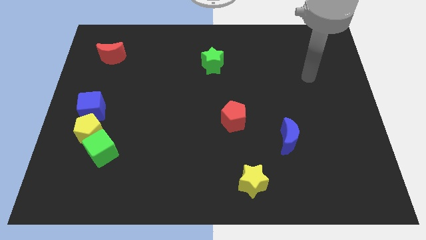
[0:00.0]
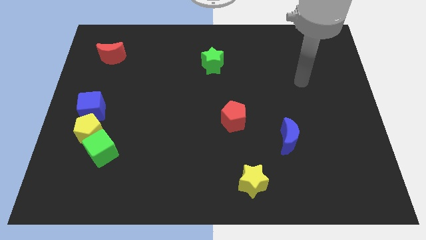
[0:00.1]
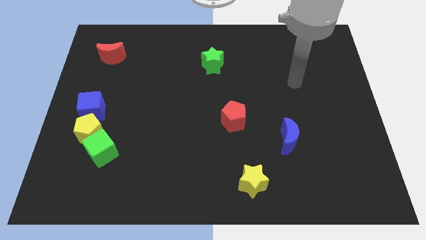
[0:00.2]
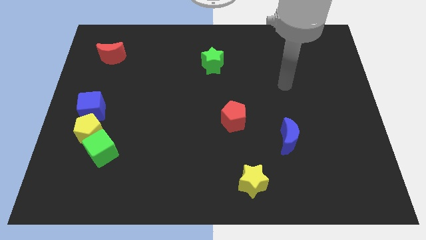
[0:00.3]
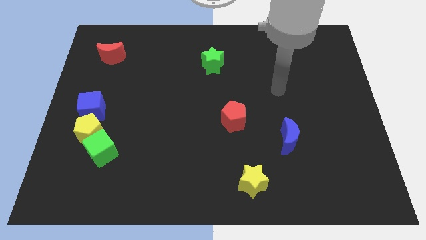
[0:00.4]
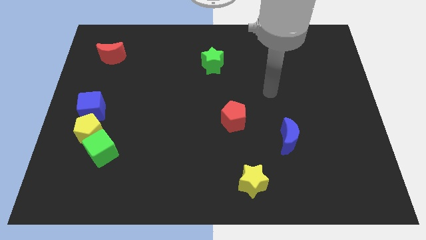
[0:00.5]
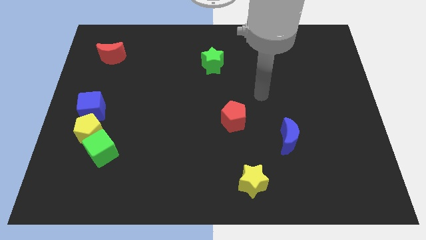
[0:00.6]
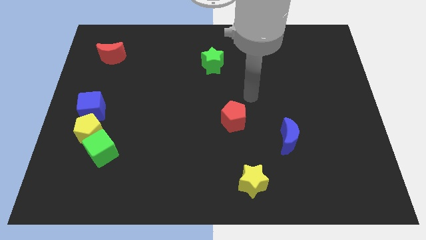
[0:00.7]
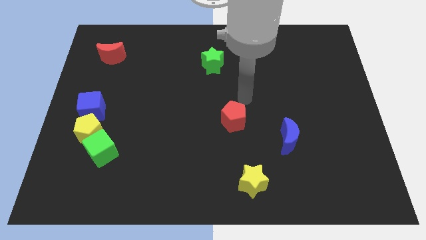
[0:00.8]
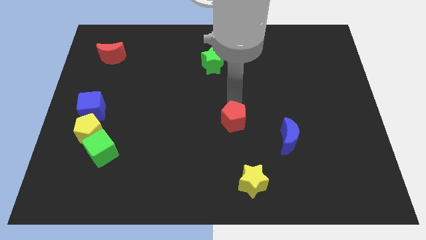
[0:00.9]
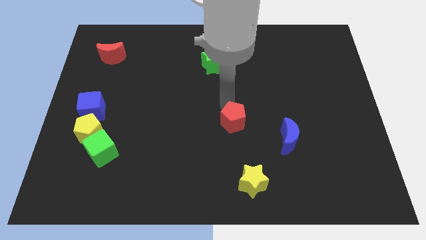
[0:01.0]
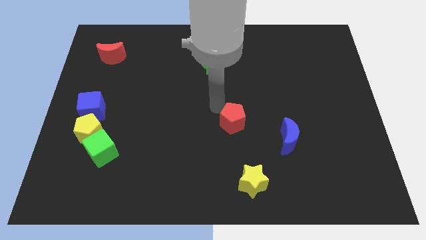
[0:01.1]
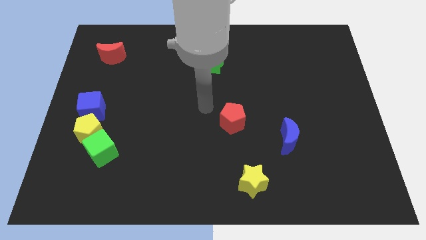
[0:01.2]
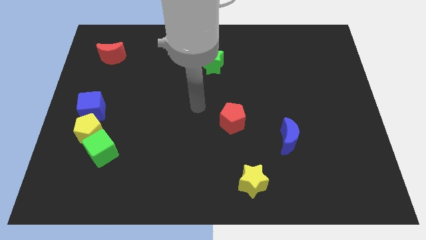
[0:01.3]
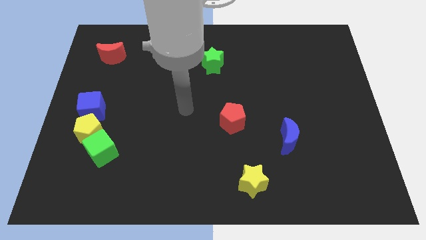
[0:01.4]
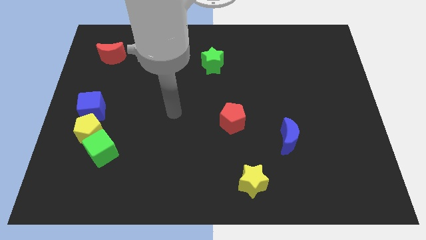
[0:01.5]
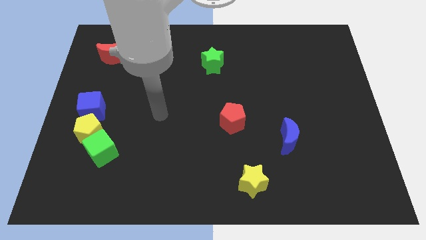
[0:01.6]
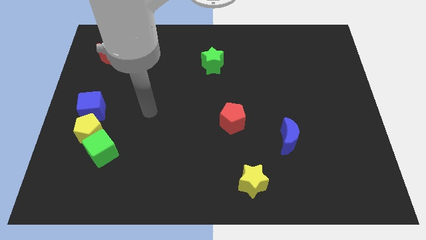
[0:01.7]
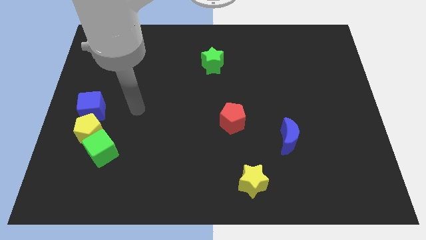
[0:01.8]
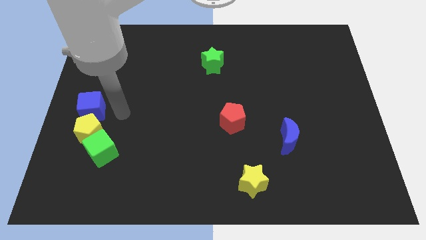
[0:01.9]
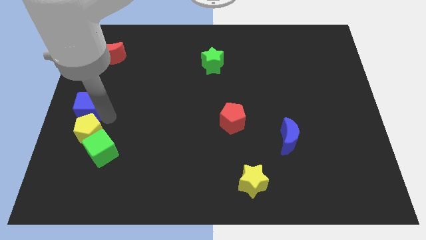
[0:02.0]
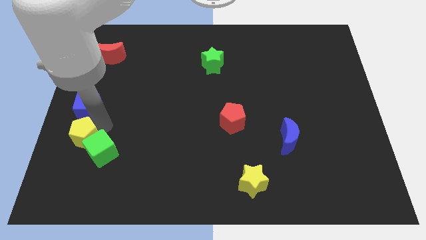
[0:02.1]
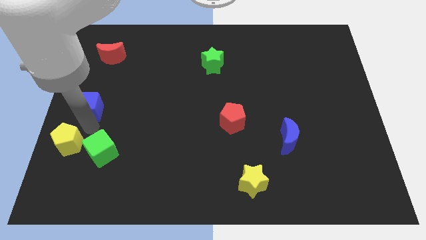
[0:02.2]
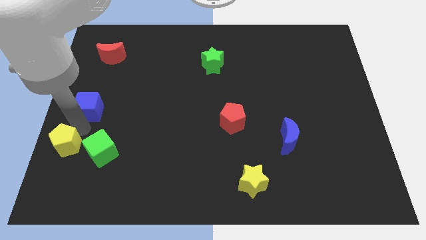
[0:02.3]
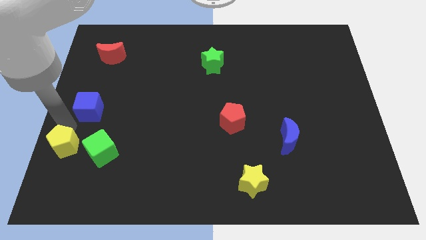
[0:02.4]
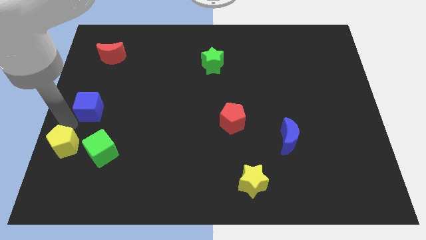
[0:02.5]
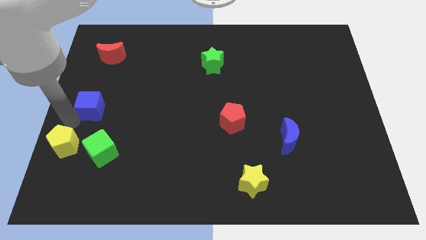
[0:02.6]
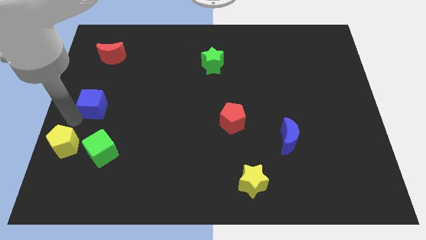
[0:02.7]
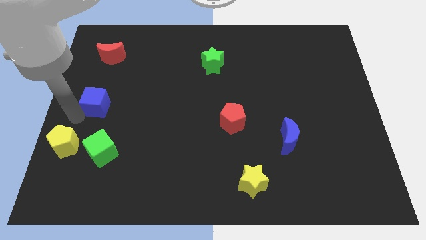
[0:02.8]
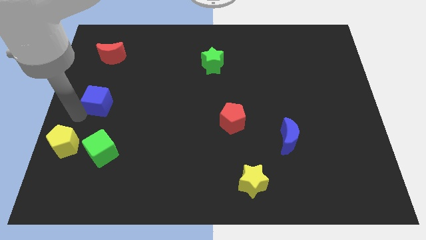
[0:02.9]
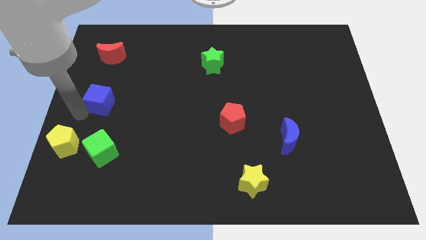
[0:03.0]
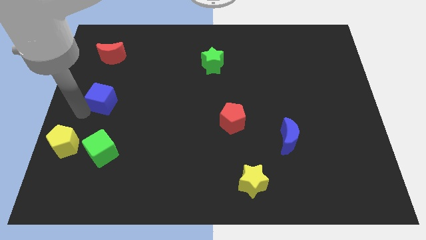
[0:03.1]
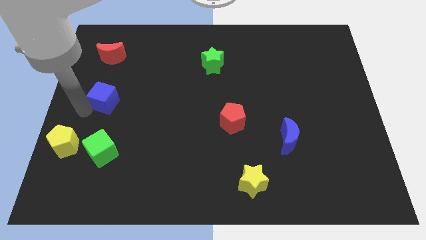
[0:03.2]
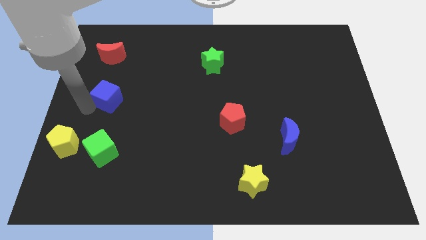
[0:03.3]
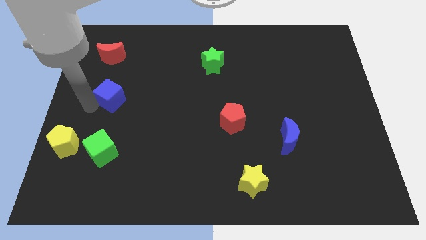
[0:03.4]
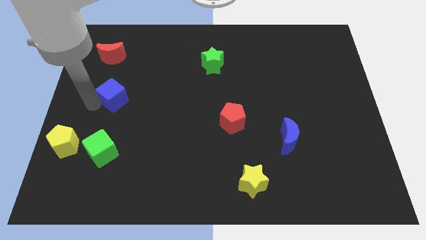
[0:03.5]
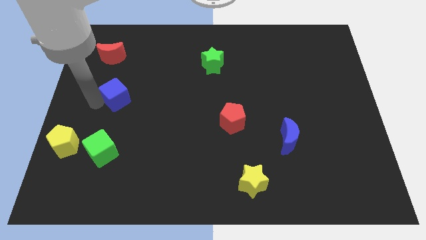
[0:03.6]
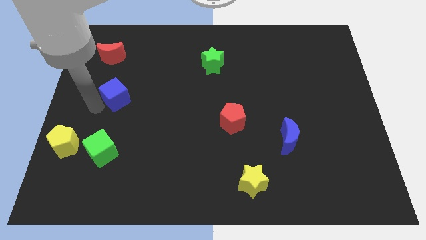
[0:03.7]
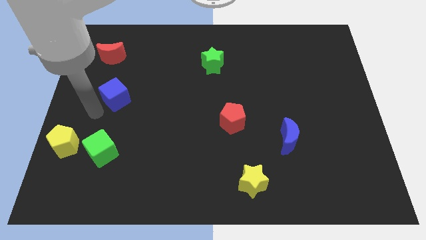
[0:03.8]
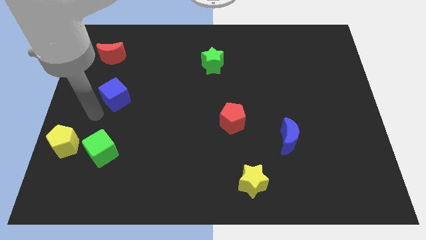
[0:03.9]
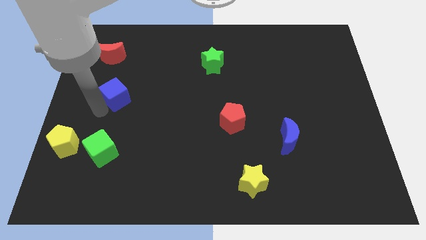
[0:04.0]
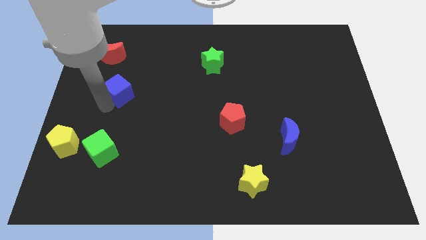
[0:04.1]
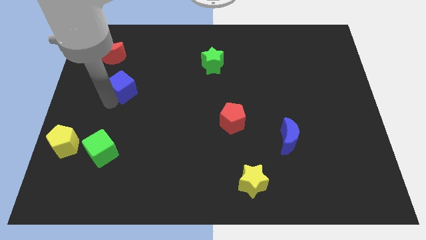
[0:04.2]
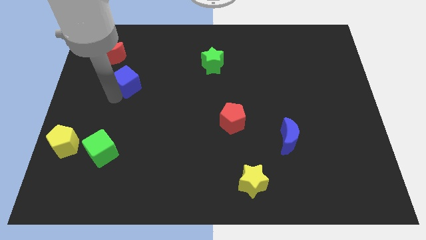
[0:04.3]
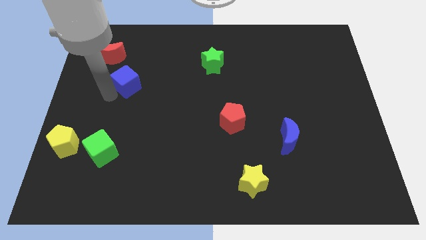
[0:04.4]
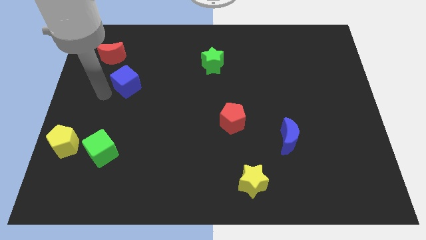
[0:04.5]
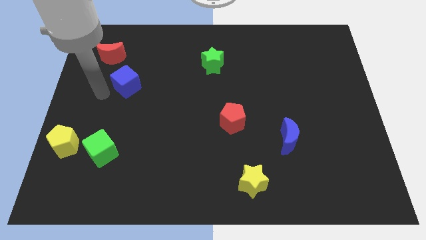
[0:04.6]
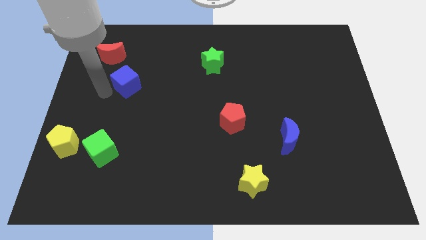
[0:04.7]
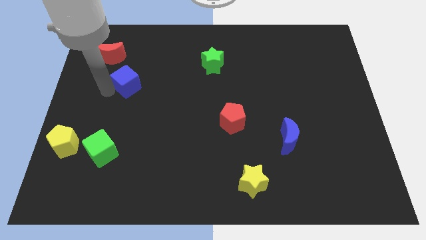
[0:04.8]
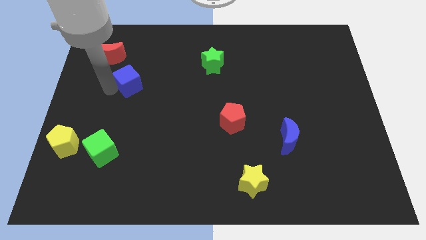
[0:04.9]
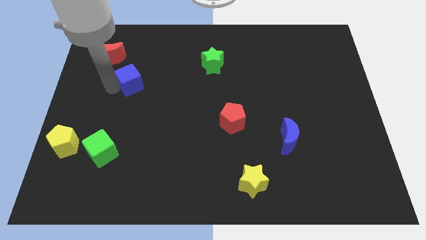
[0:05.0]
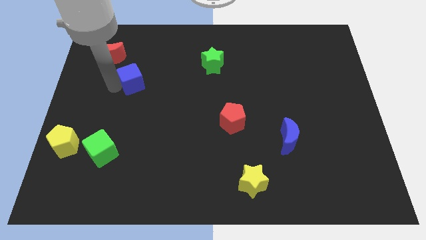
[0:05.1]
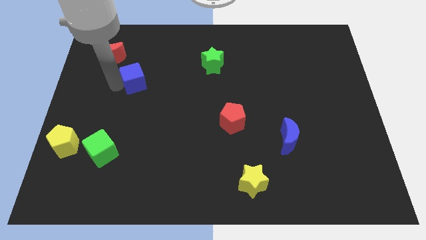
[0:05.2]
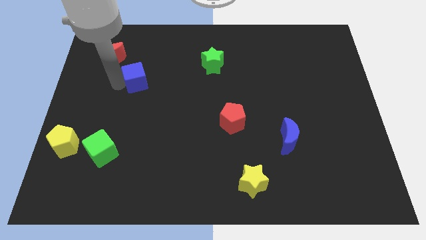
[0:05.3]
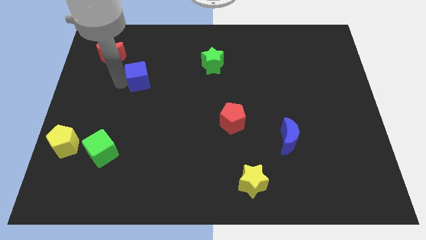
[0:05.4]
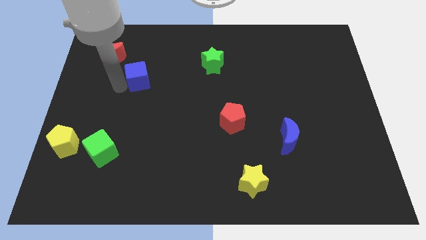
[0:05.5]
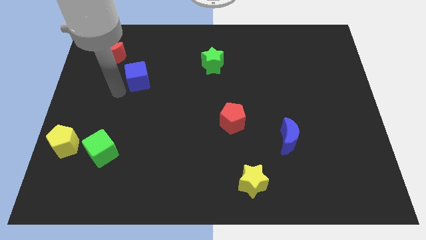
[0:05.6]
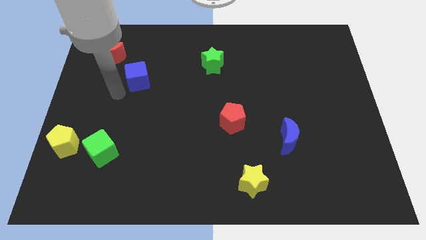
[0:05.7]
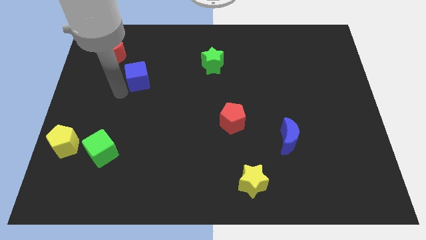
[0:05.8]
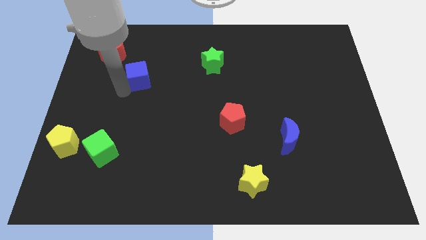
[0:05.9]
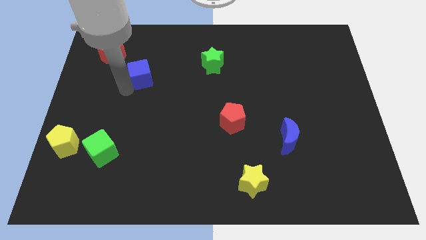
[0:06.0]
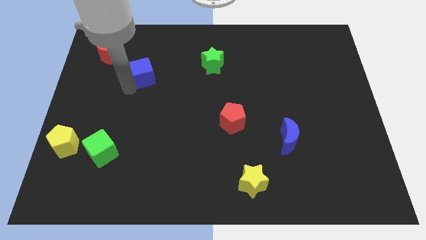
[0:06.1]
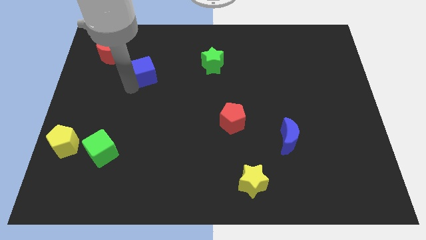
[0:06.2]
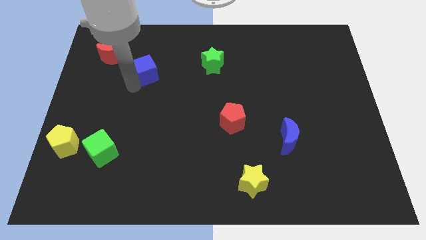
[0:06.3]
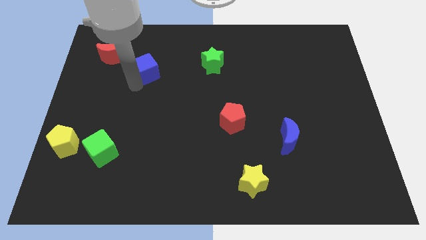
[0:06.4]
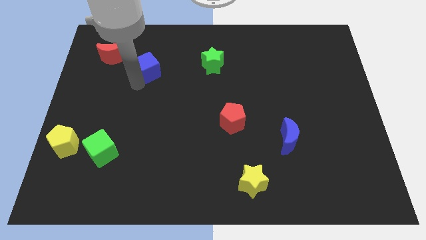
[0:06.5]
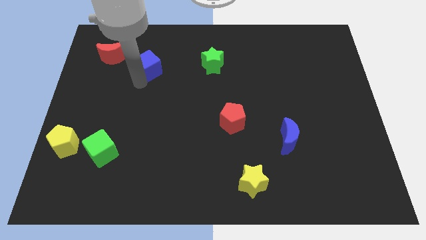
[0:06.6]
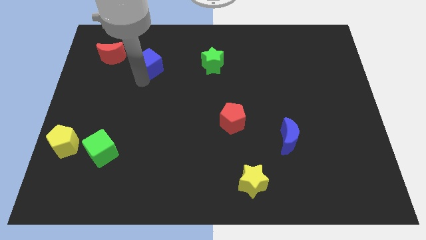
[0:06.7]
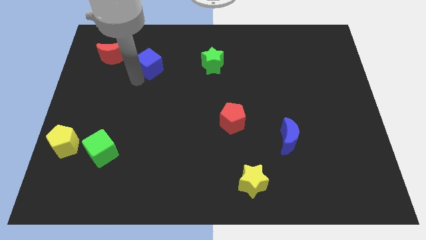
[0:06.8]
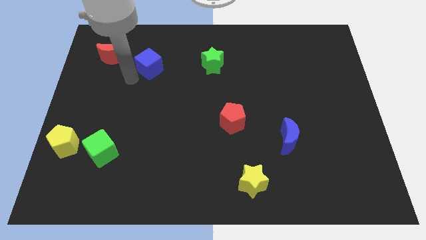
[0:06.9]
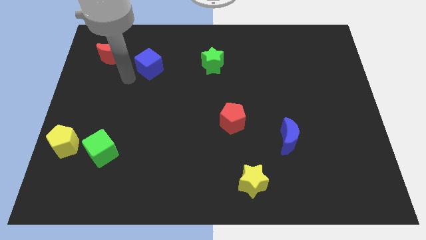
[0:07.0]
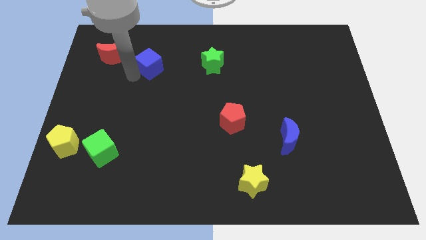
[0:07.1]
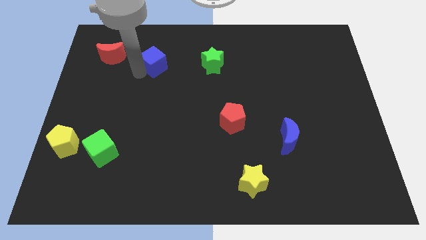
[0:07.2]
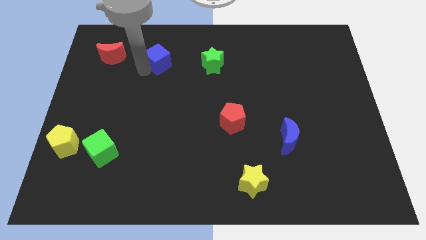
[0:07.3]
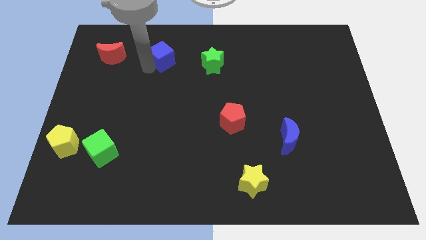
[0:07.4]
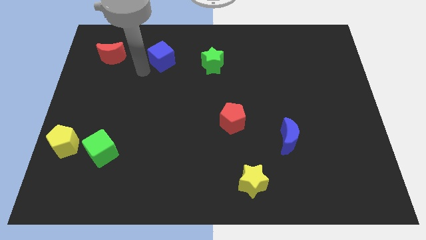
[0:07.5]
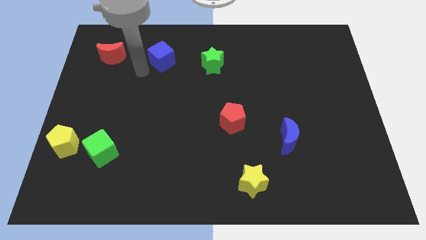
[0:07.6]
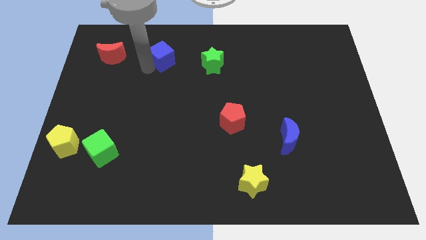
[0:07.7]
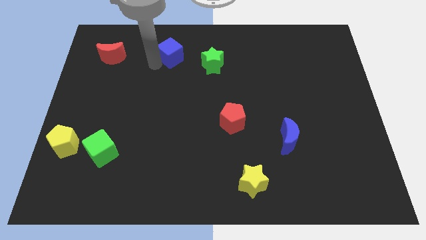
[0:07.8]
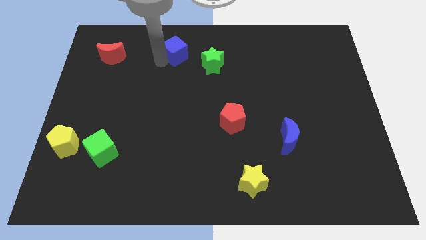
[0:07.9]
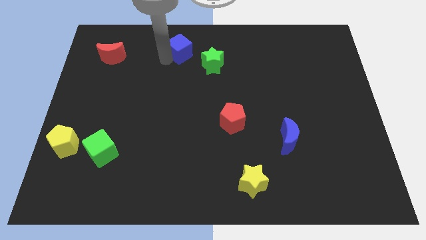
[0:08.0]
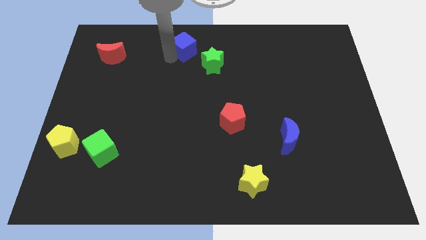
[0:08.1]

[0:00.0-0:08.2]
put the blue cube to the top
